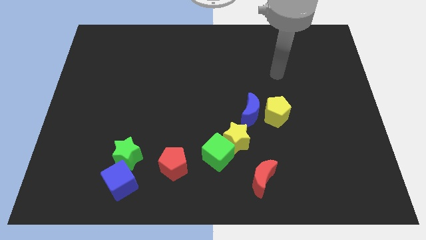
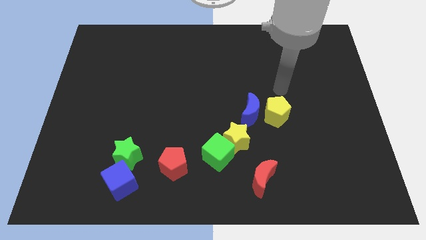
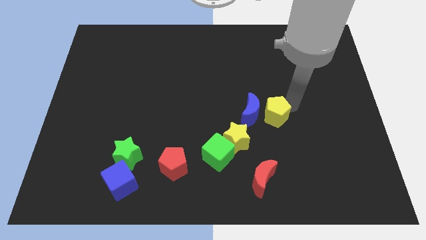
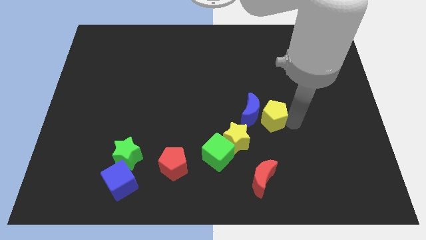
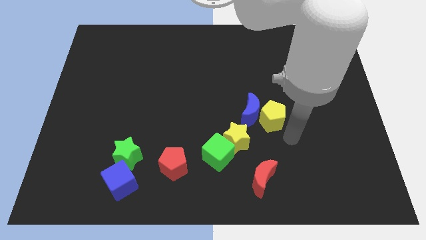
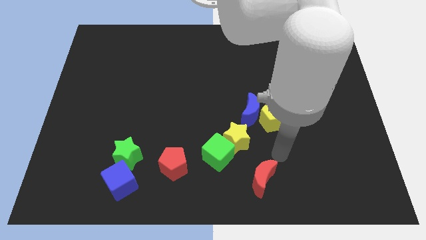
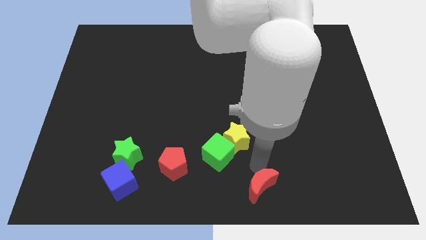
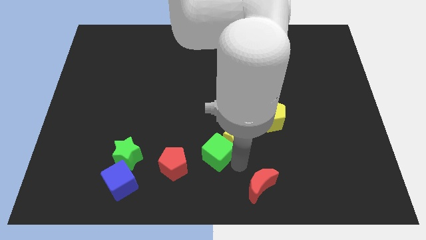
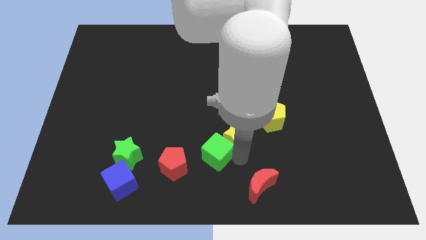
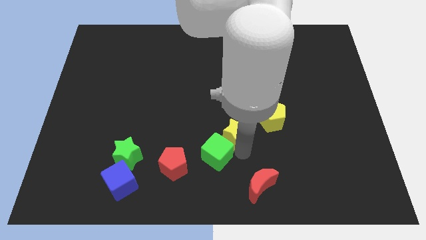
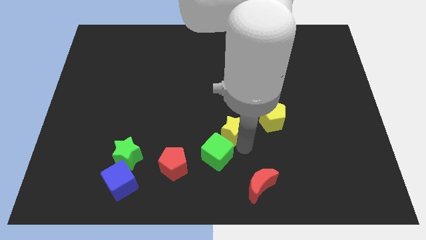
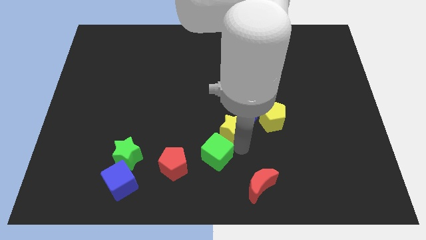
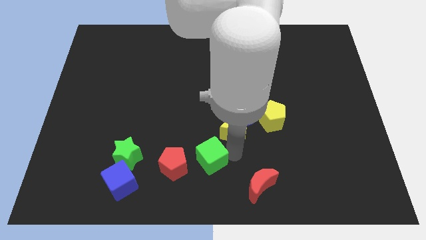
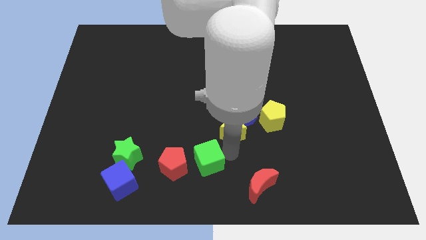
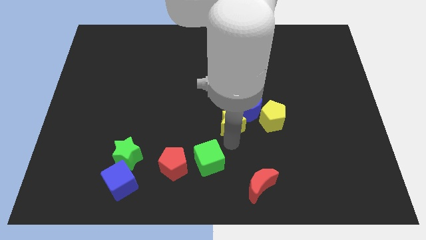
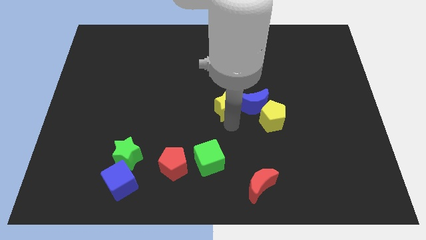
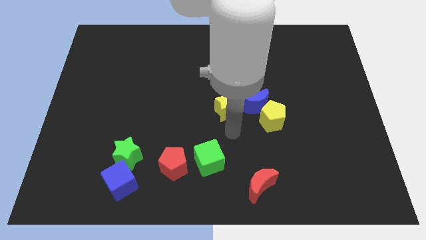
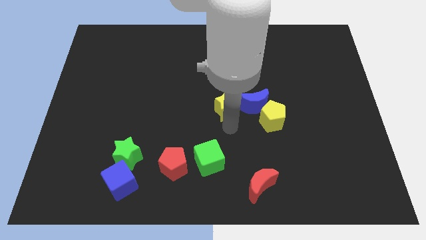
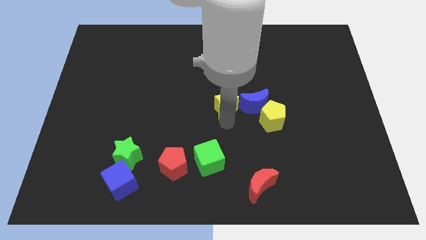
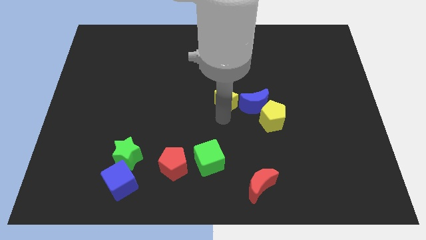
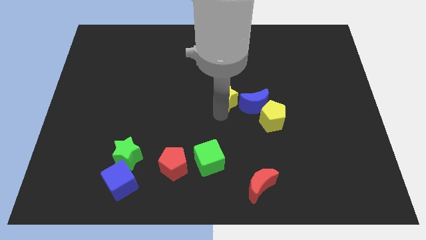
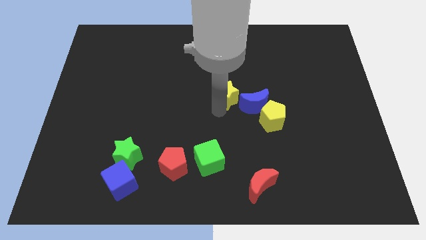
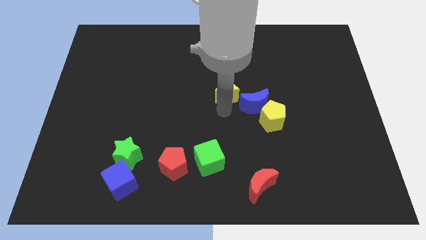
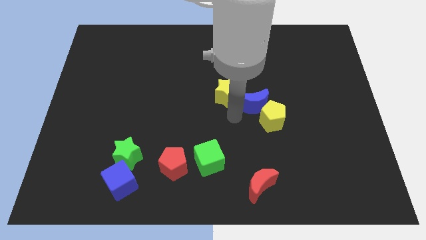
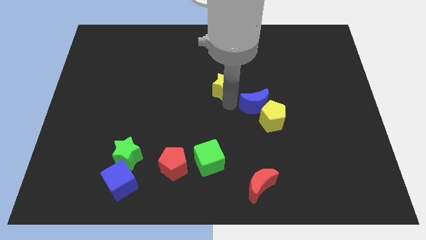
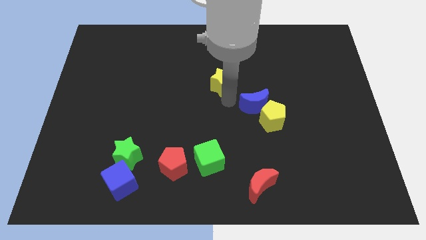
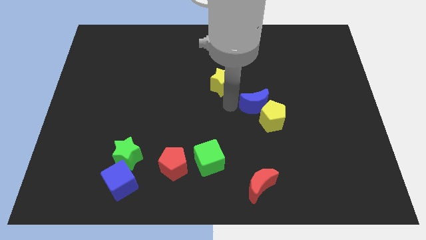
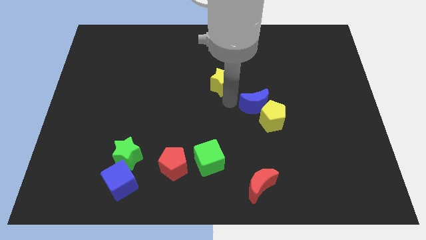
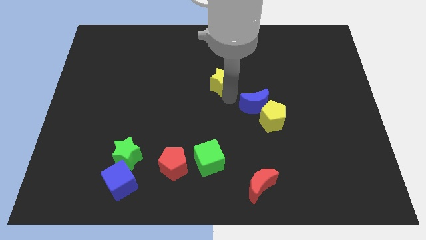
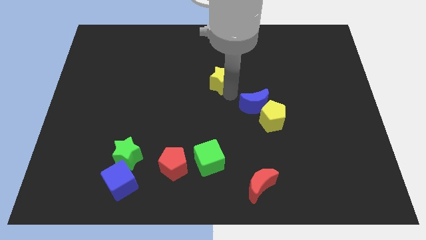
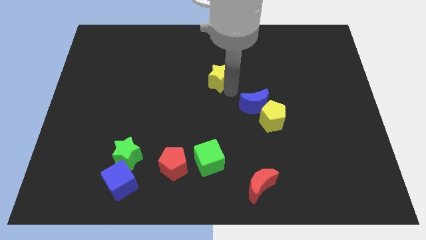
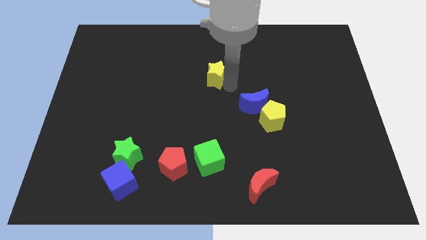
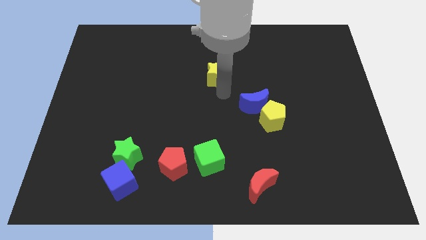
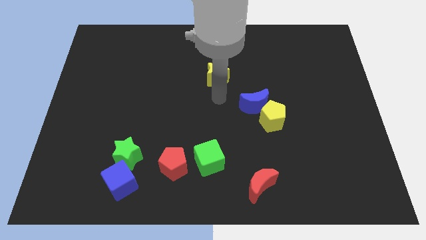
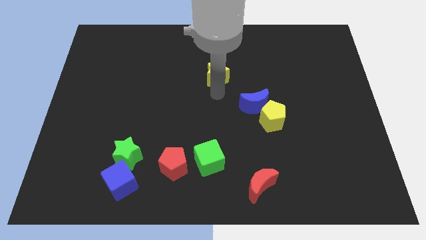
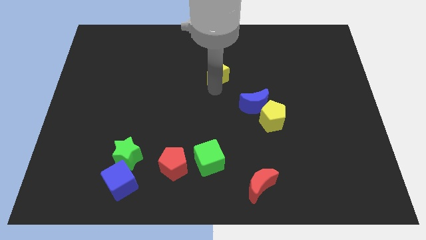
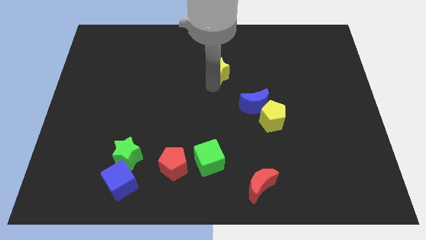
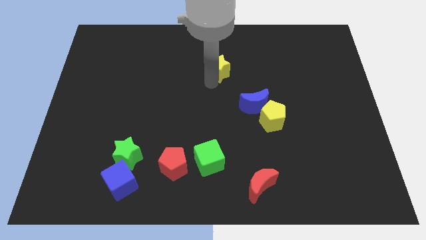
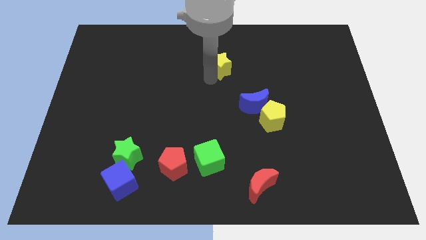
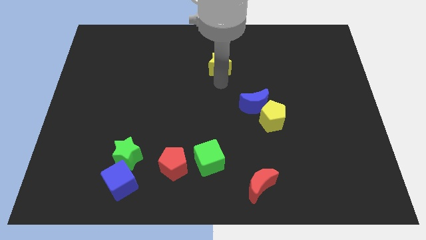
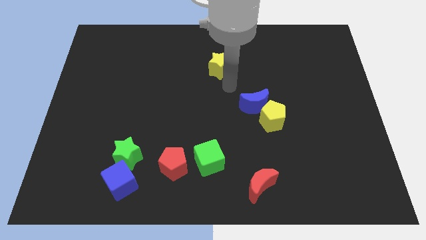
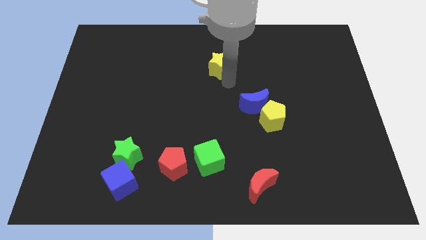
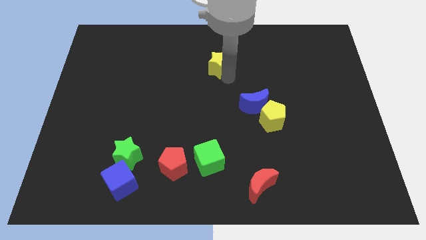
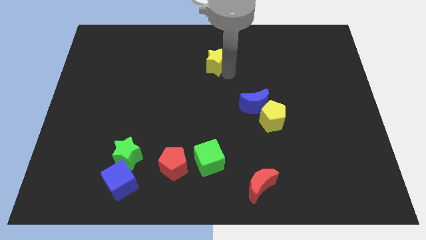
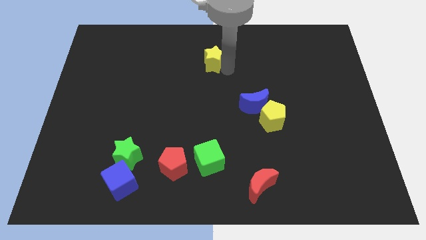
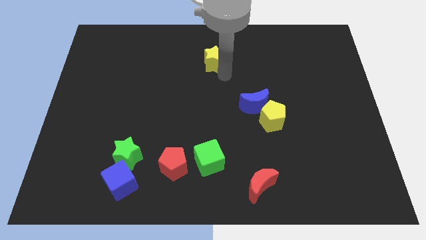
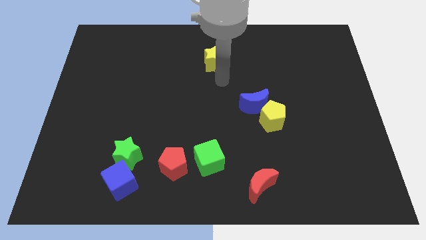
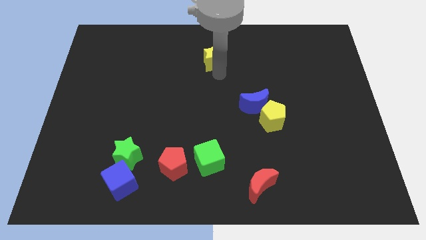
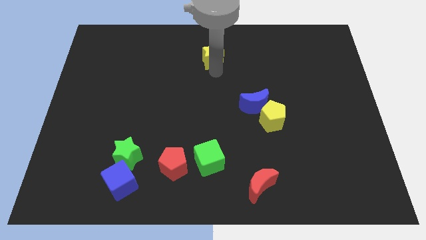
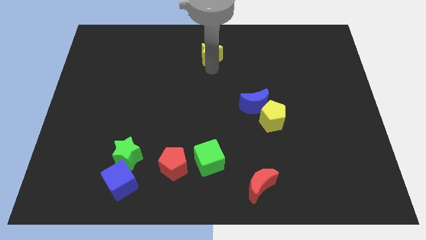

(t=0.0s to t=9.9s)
move the yellow star to the top side

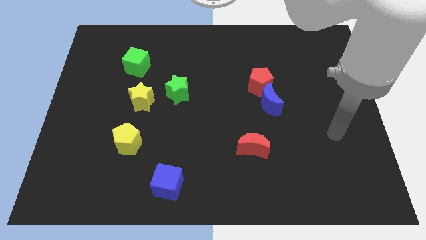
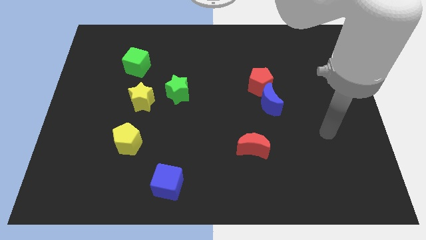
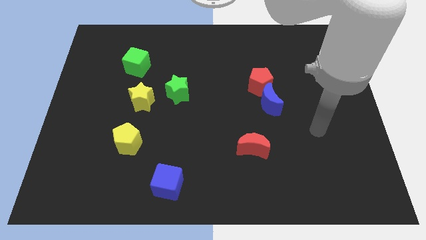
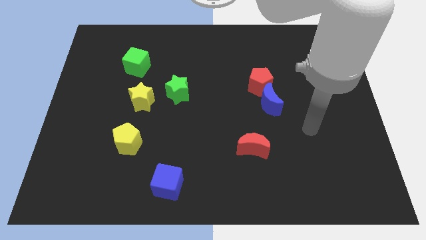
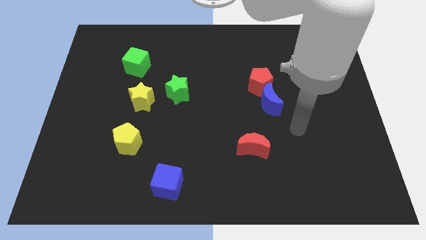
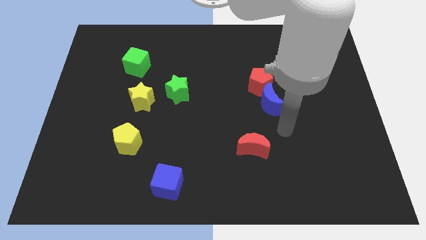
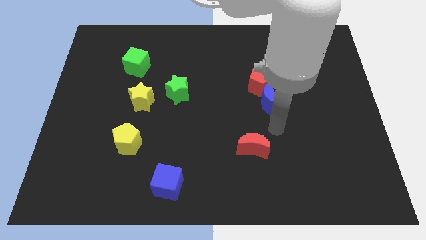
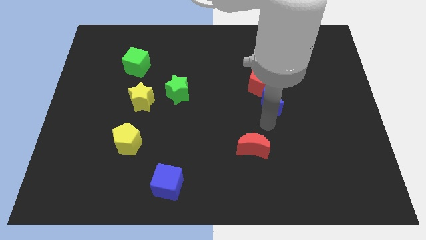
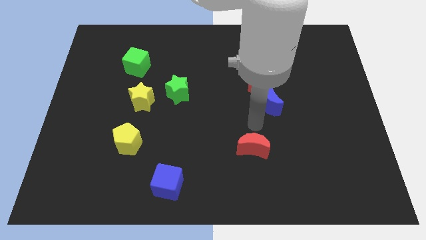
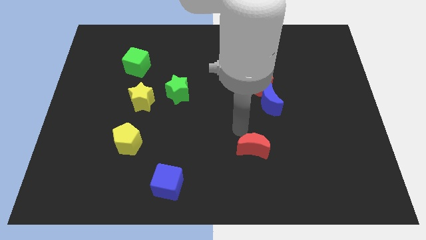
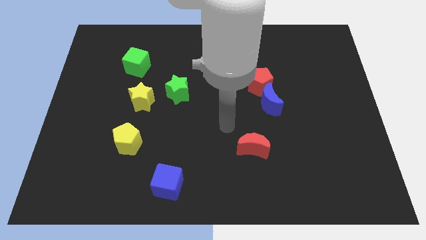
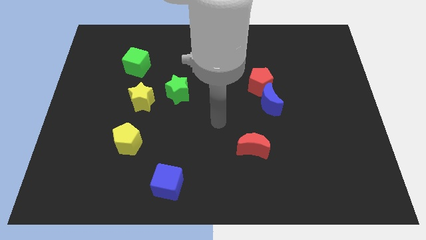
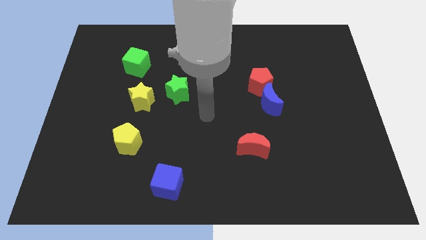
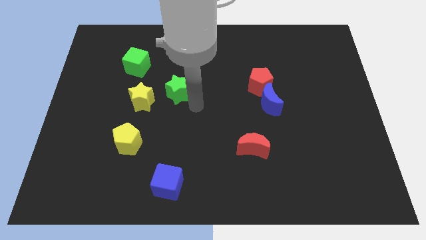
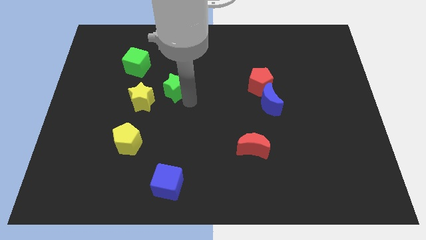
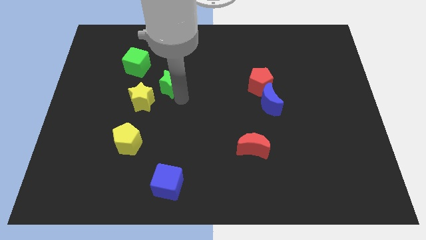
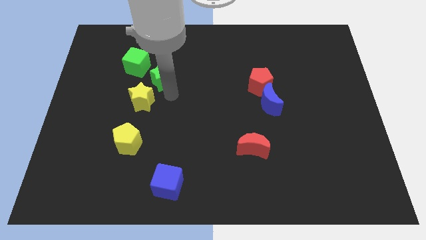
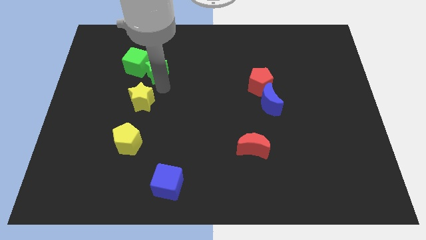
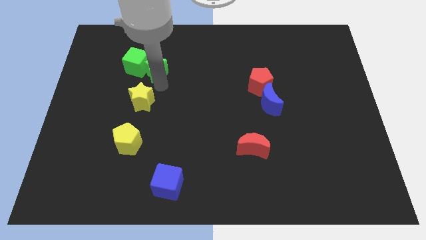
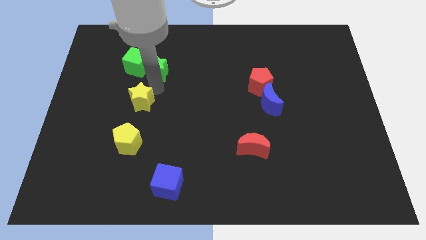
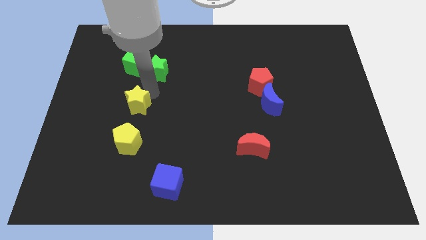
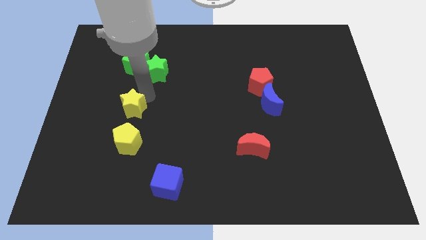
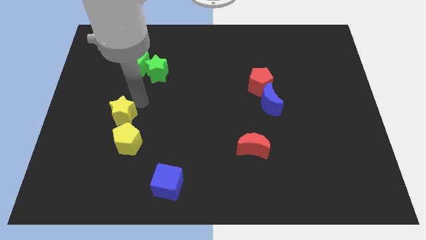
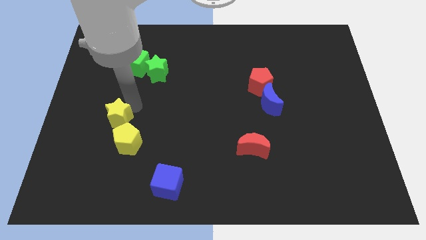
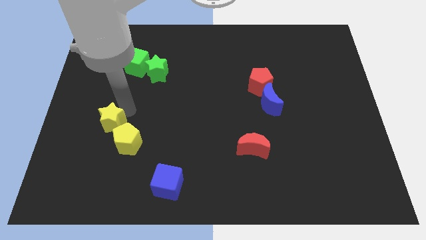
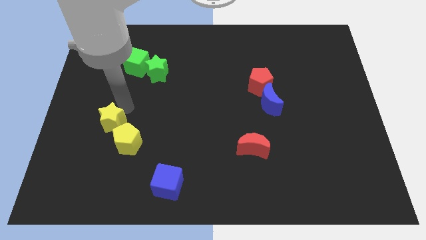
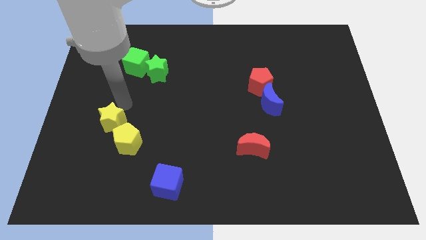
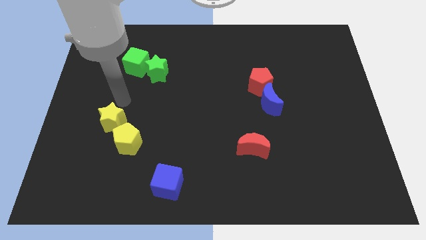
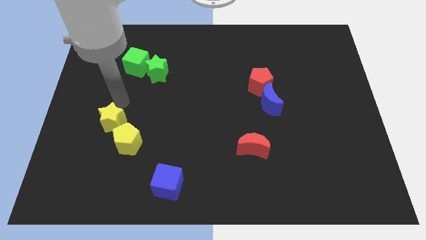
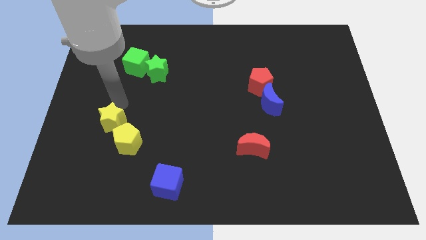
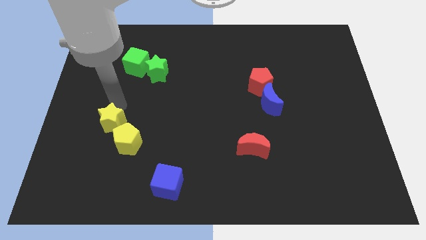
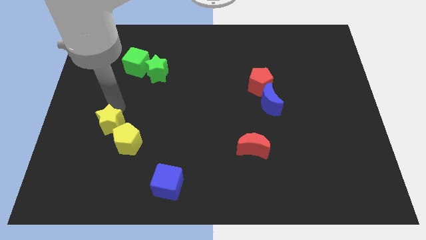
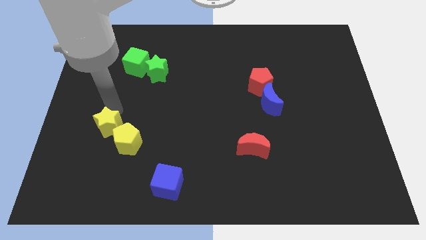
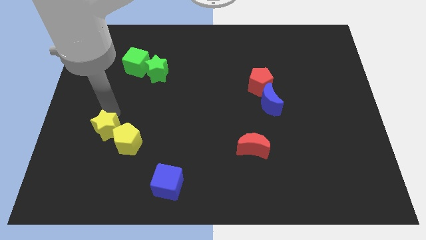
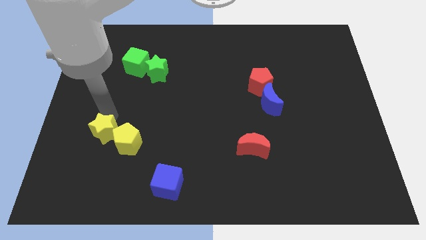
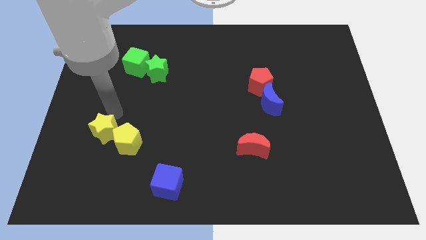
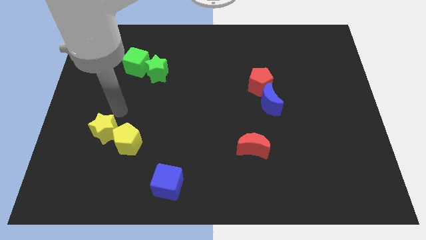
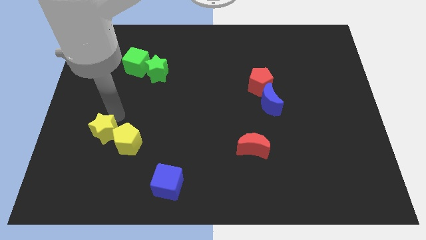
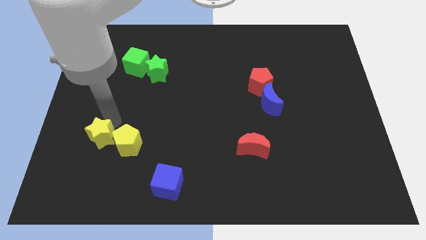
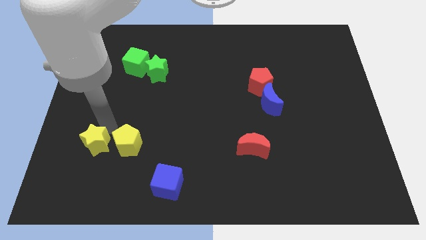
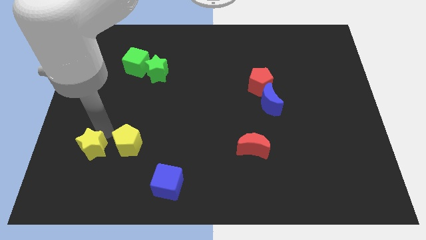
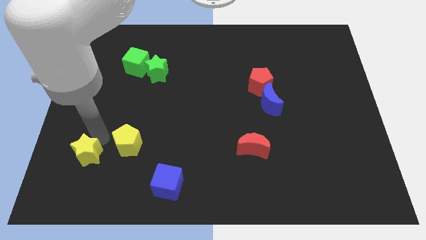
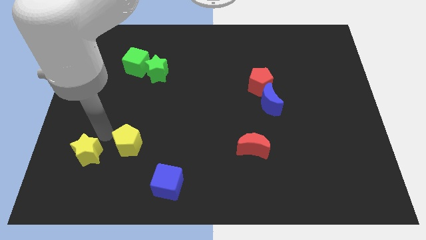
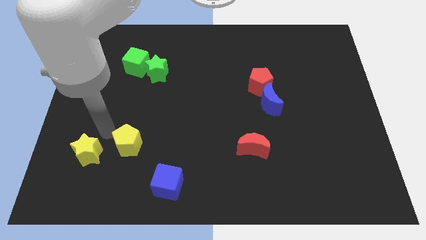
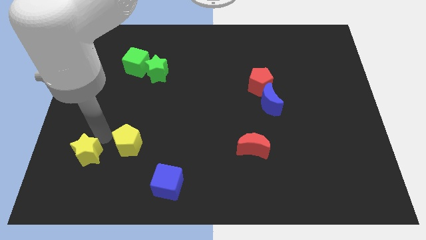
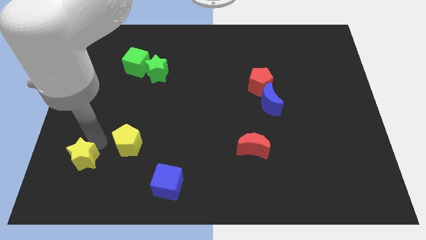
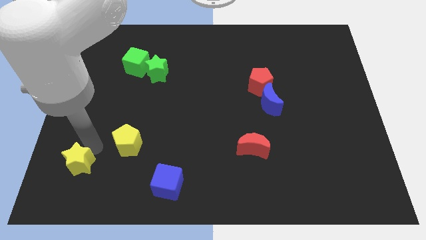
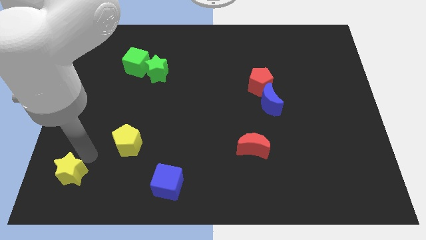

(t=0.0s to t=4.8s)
move the yellow star to the lower left corner
